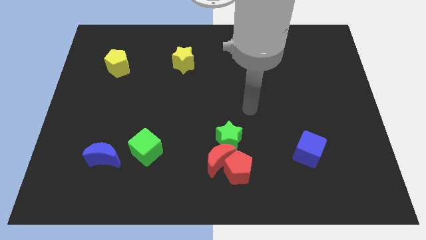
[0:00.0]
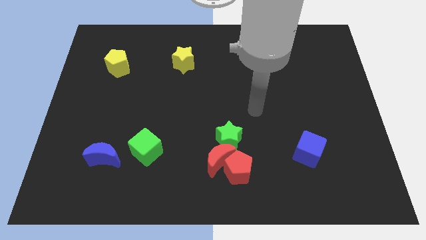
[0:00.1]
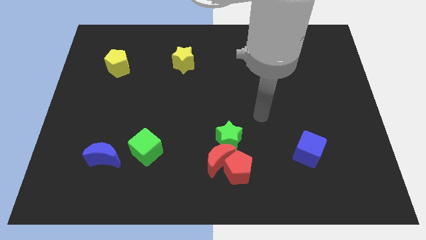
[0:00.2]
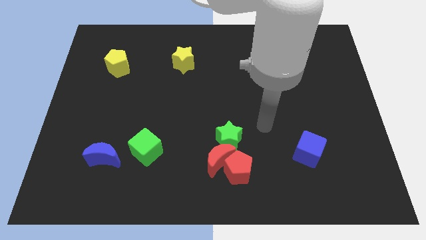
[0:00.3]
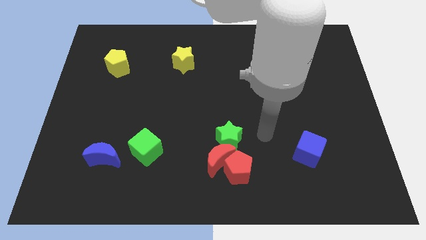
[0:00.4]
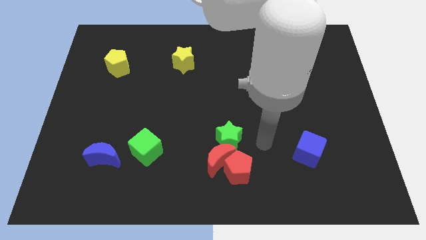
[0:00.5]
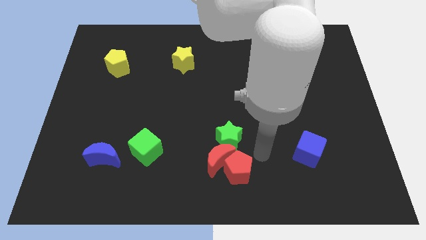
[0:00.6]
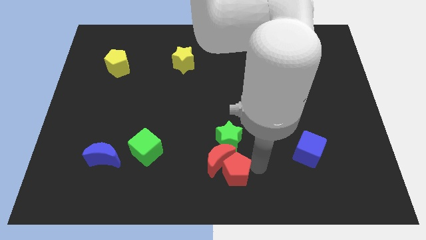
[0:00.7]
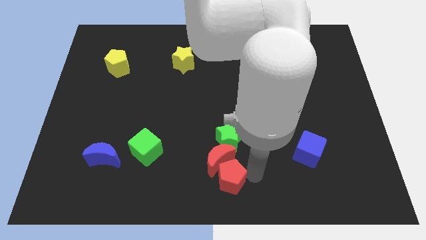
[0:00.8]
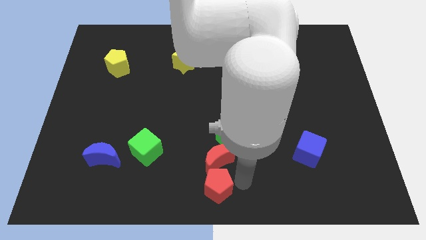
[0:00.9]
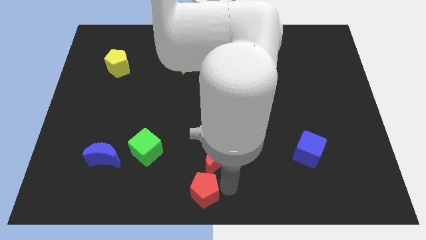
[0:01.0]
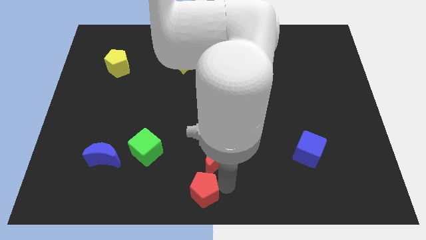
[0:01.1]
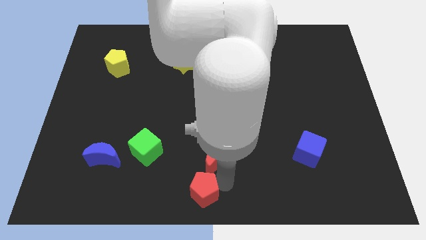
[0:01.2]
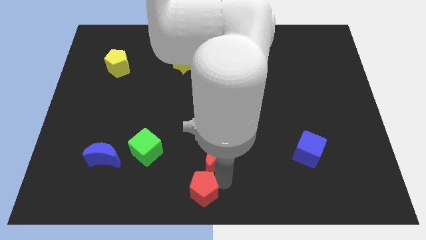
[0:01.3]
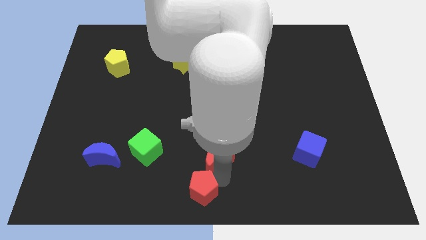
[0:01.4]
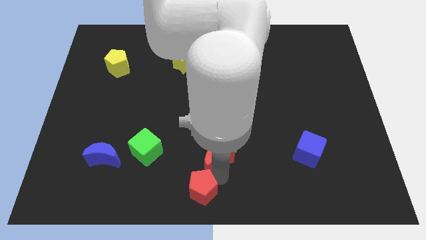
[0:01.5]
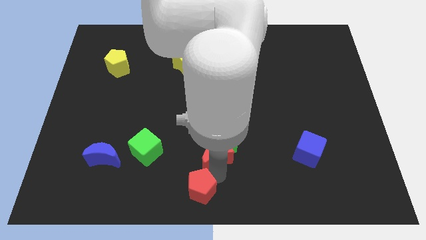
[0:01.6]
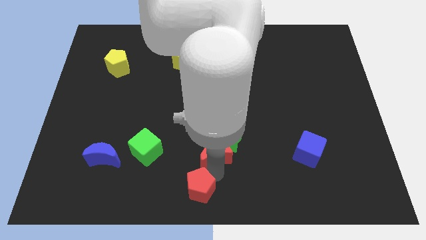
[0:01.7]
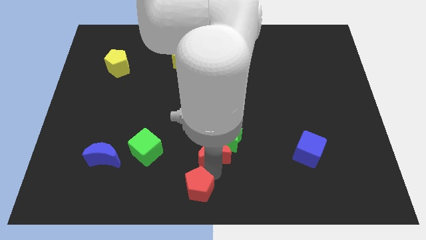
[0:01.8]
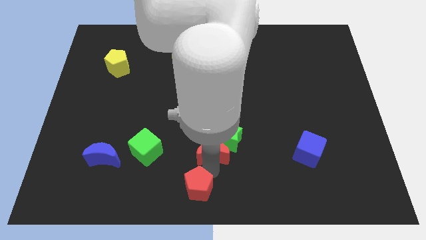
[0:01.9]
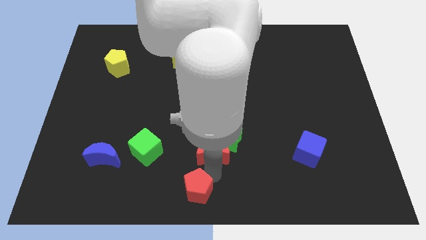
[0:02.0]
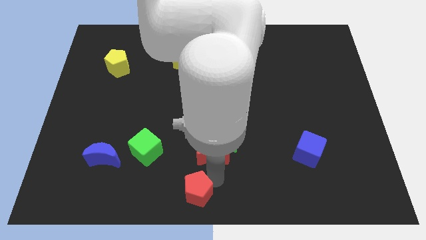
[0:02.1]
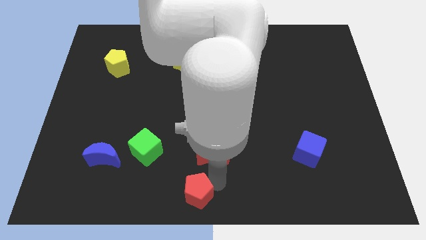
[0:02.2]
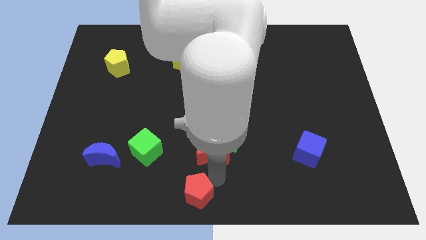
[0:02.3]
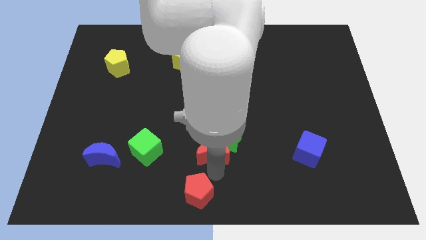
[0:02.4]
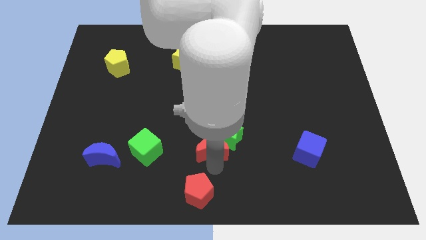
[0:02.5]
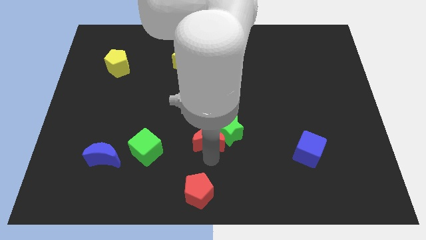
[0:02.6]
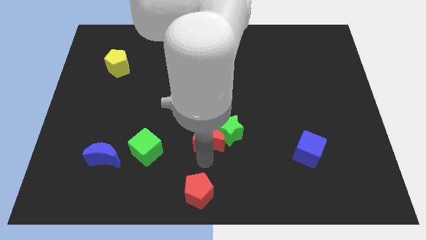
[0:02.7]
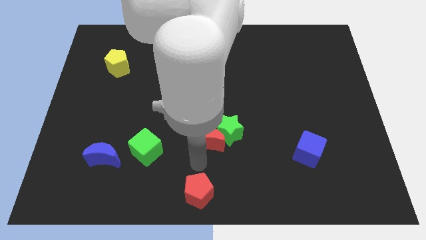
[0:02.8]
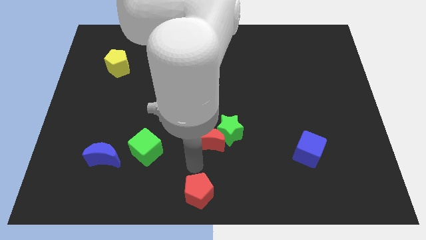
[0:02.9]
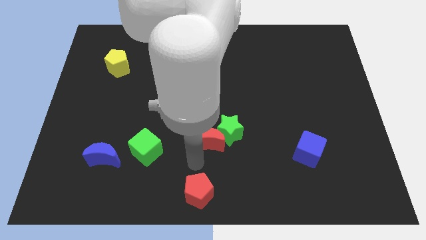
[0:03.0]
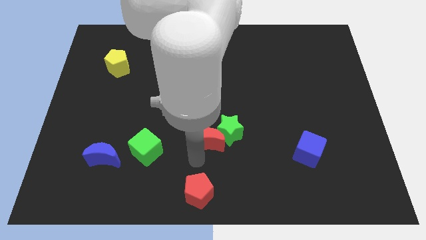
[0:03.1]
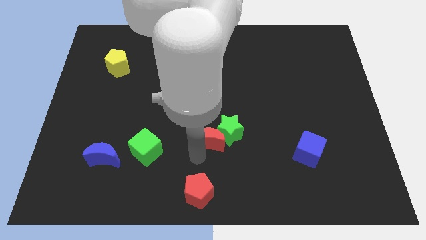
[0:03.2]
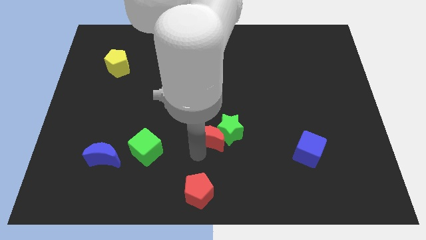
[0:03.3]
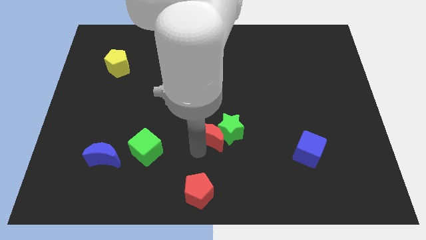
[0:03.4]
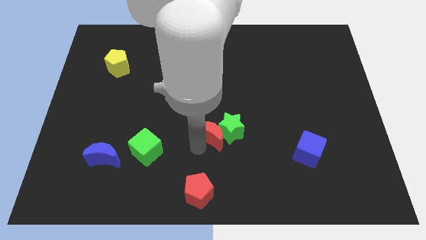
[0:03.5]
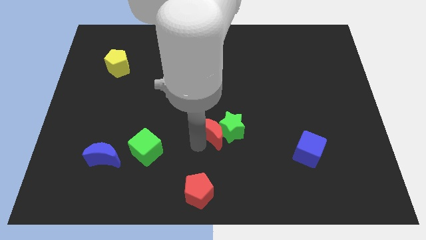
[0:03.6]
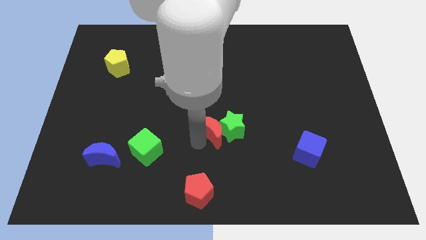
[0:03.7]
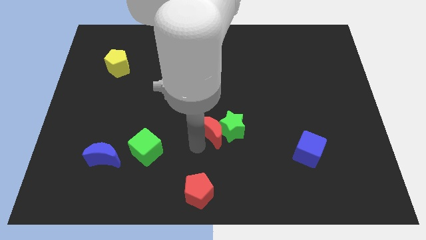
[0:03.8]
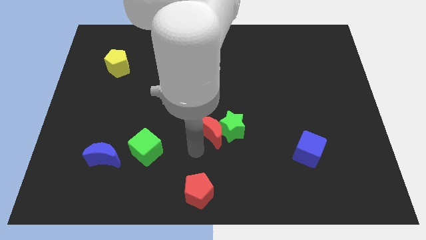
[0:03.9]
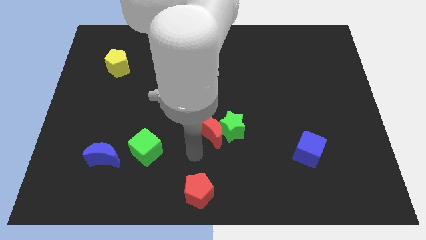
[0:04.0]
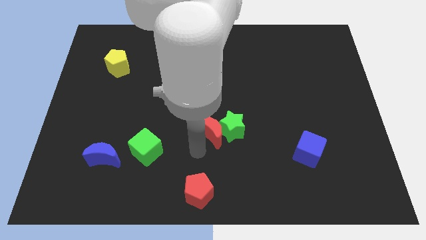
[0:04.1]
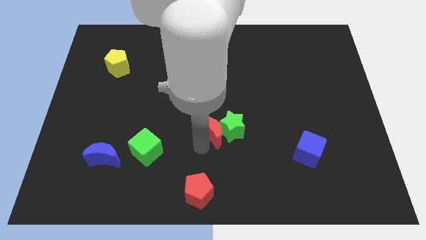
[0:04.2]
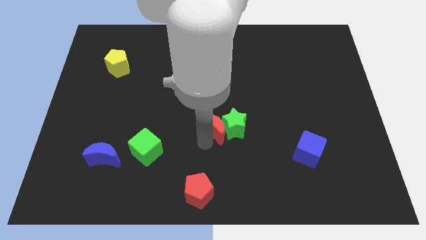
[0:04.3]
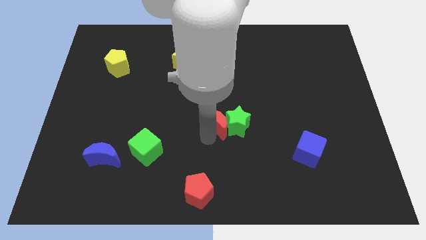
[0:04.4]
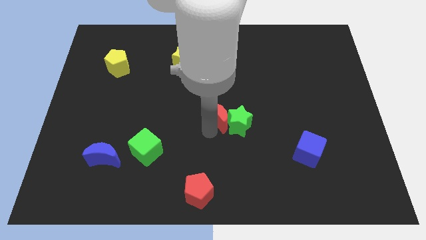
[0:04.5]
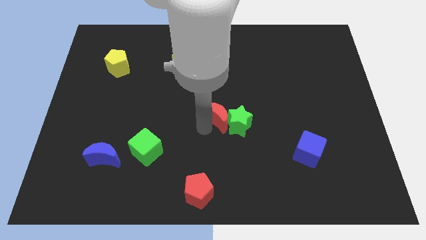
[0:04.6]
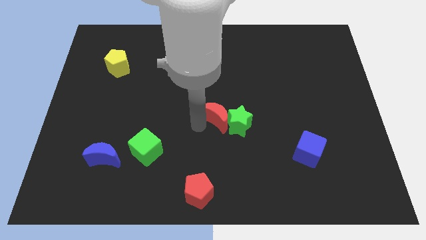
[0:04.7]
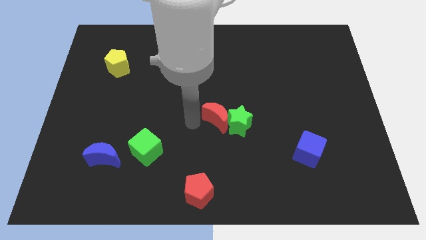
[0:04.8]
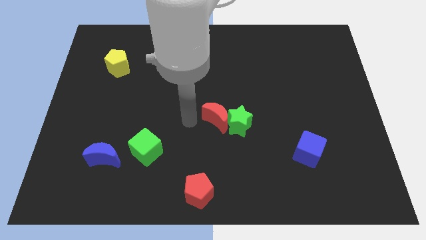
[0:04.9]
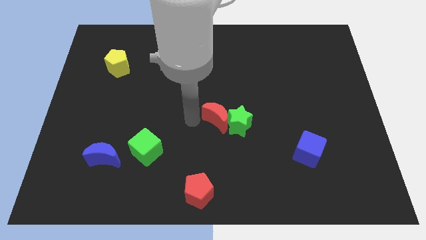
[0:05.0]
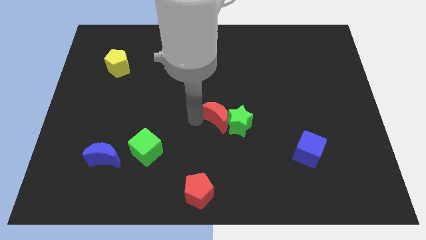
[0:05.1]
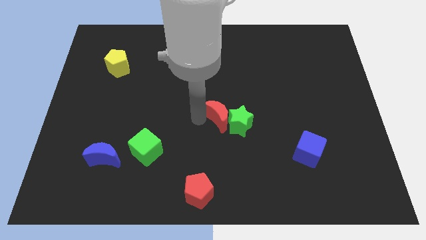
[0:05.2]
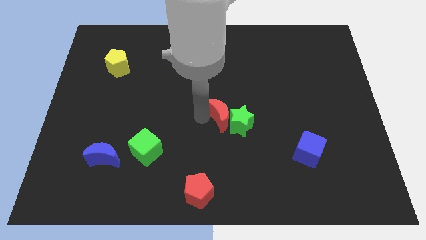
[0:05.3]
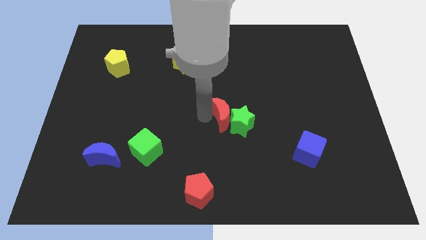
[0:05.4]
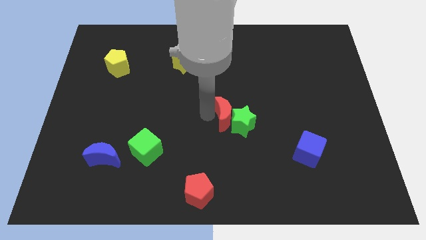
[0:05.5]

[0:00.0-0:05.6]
slightly move the red moon upwards and right

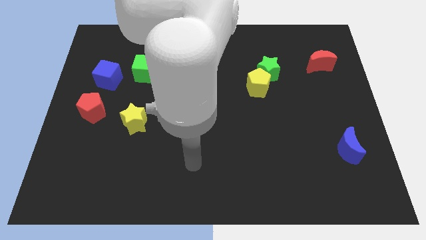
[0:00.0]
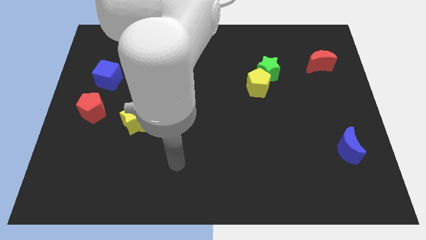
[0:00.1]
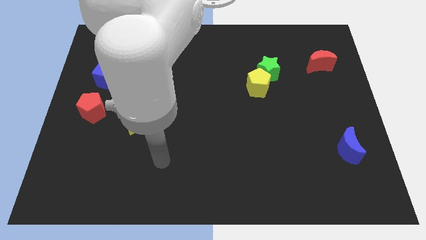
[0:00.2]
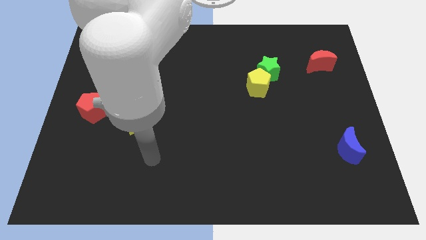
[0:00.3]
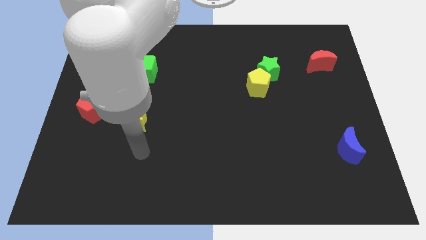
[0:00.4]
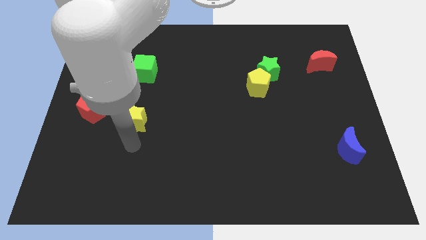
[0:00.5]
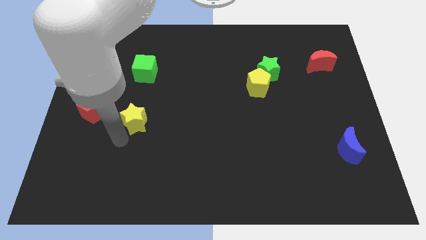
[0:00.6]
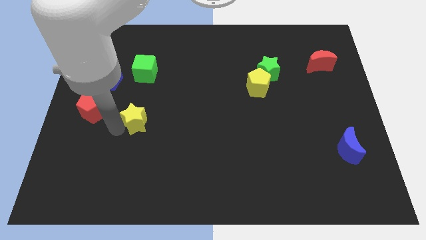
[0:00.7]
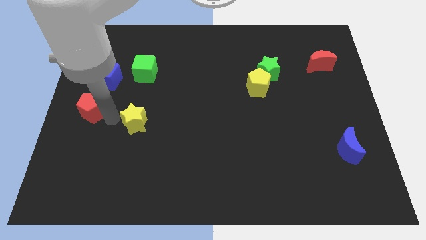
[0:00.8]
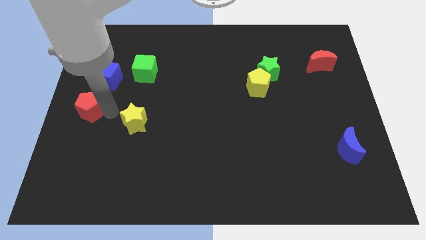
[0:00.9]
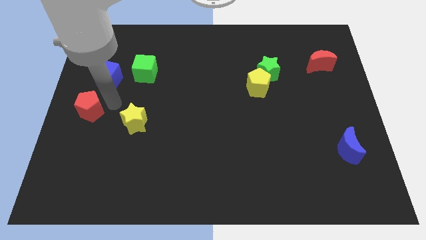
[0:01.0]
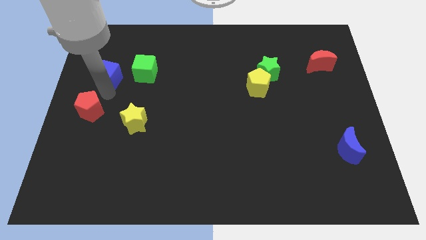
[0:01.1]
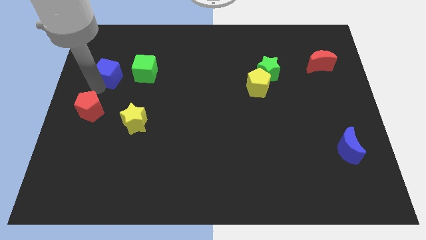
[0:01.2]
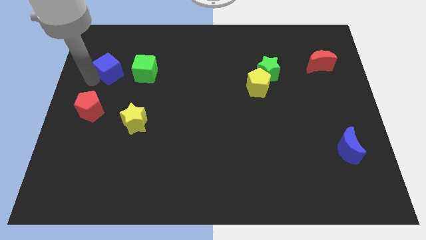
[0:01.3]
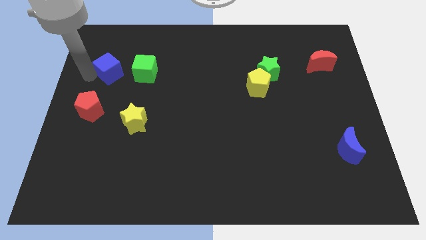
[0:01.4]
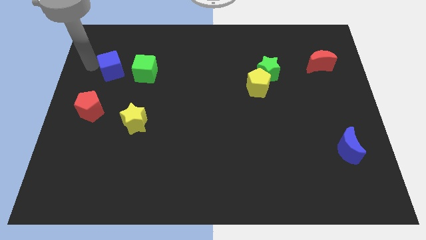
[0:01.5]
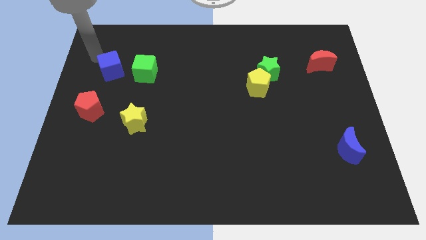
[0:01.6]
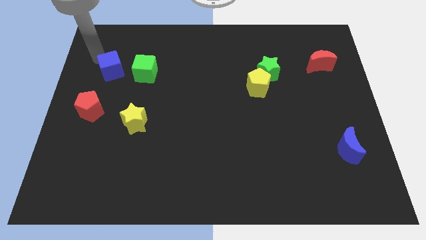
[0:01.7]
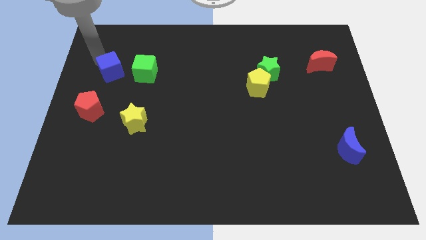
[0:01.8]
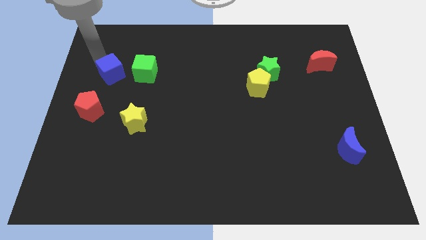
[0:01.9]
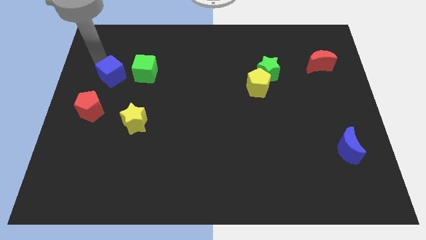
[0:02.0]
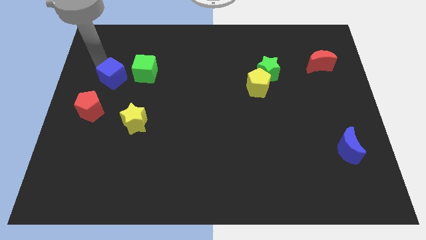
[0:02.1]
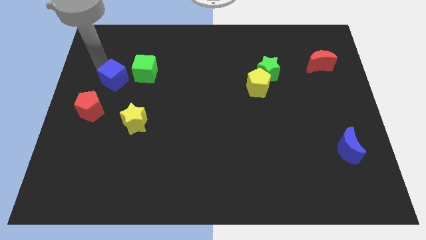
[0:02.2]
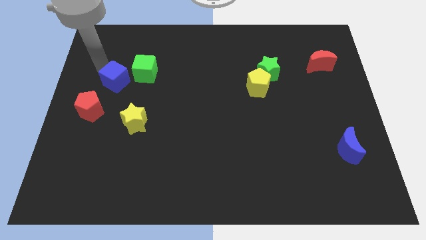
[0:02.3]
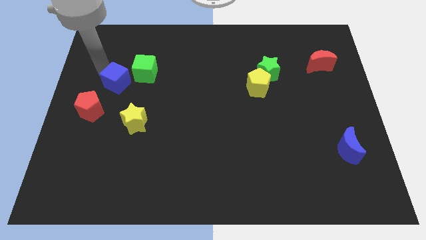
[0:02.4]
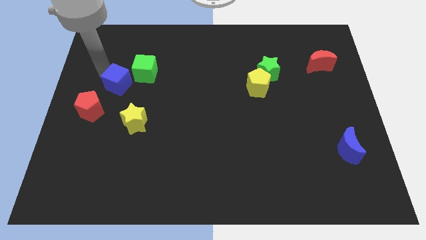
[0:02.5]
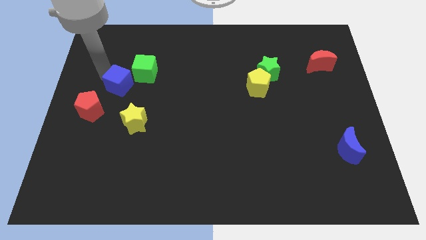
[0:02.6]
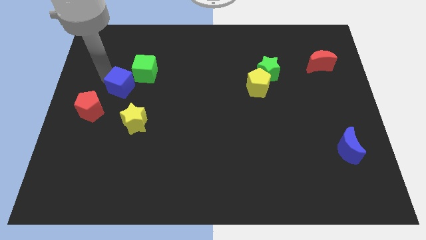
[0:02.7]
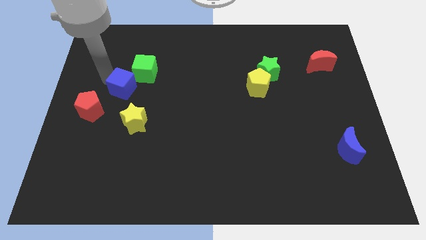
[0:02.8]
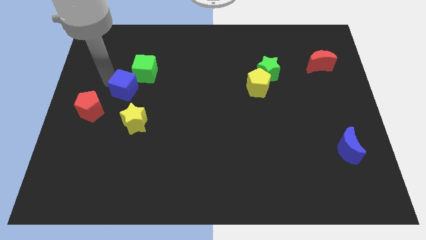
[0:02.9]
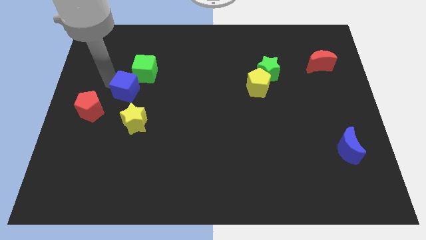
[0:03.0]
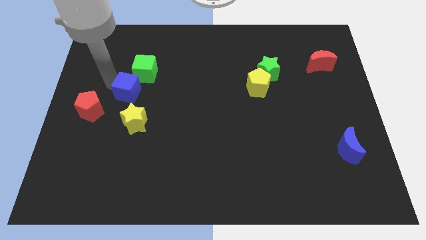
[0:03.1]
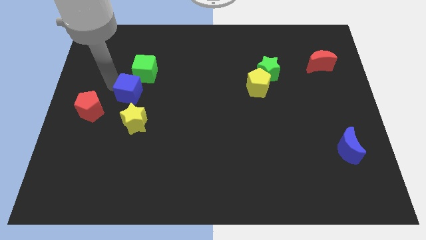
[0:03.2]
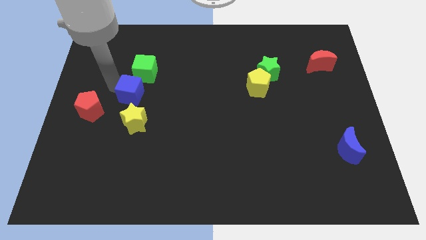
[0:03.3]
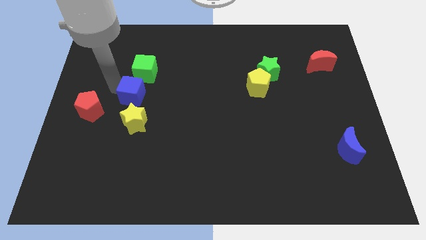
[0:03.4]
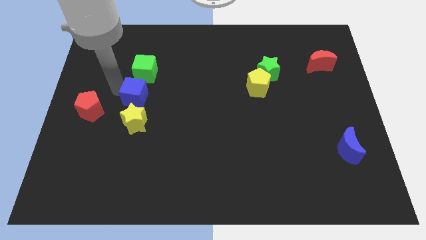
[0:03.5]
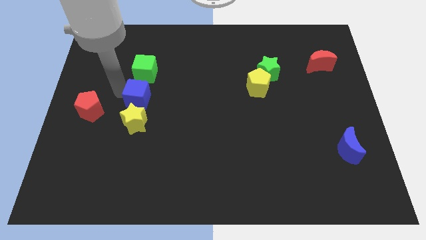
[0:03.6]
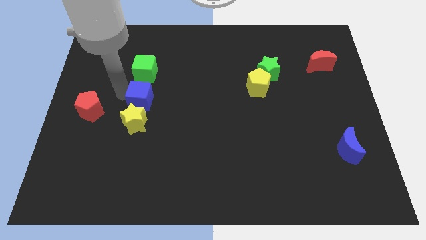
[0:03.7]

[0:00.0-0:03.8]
move the blue cube right a little bit
